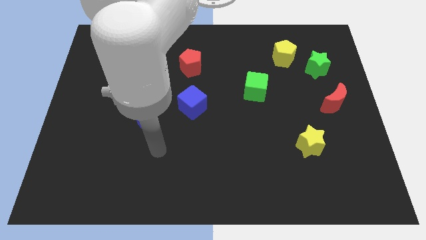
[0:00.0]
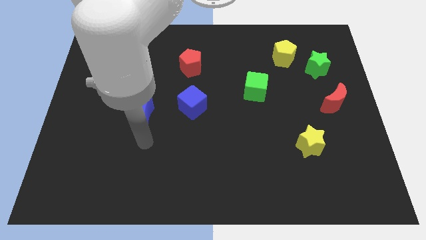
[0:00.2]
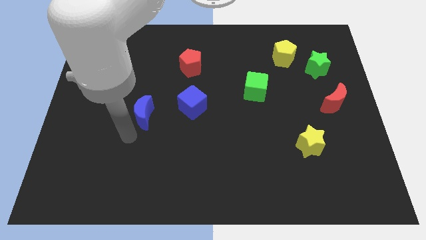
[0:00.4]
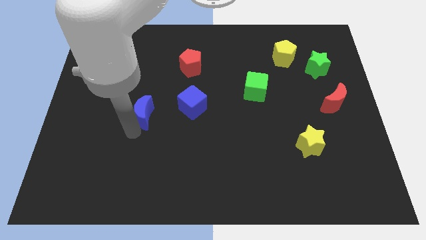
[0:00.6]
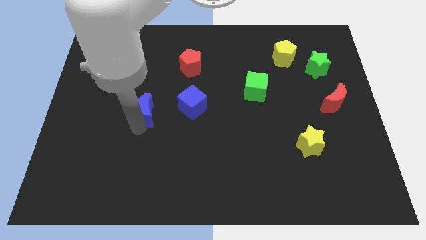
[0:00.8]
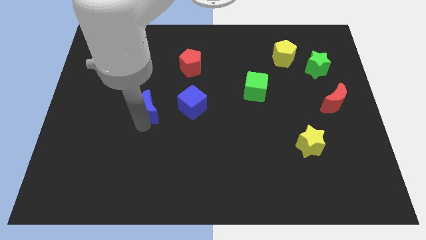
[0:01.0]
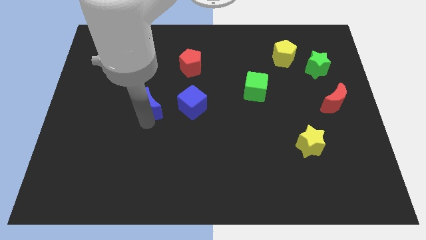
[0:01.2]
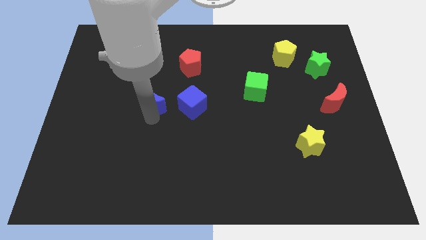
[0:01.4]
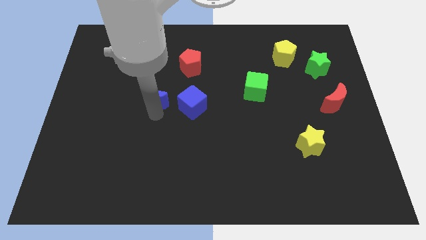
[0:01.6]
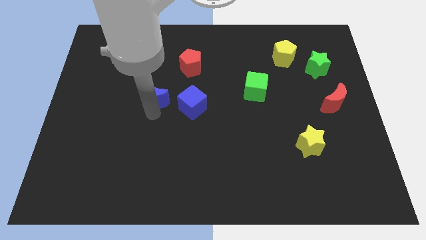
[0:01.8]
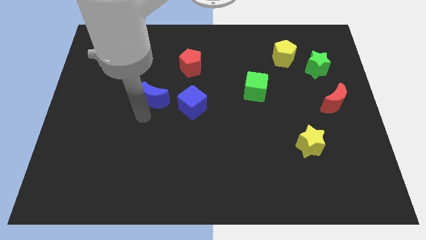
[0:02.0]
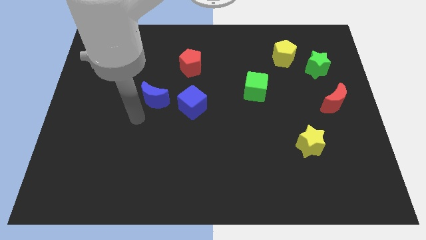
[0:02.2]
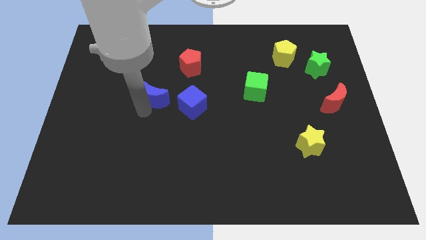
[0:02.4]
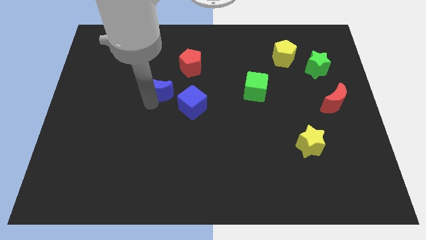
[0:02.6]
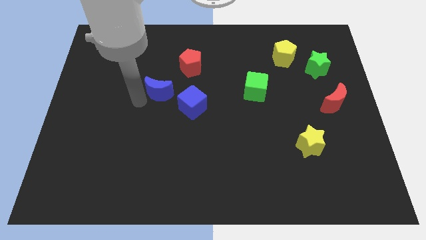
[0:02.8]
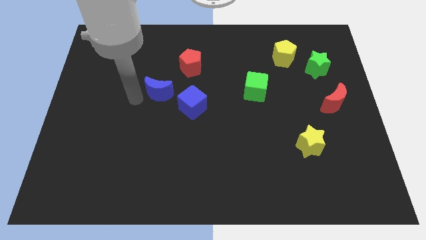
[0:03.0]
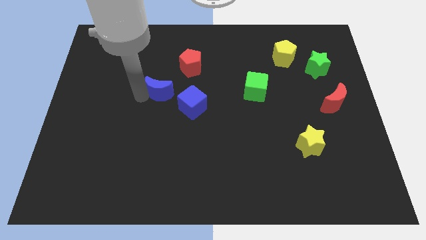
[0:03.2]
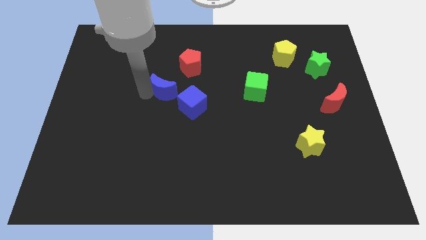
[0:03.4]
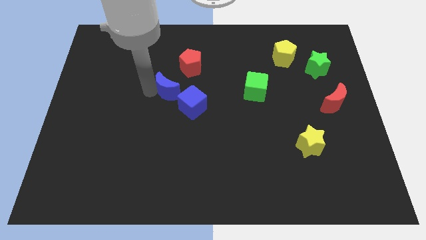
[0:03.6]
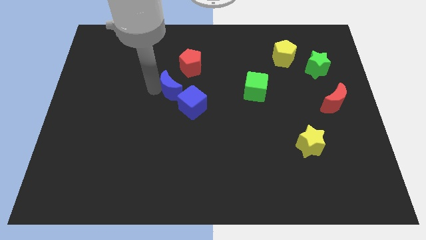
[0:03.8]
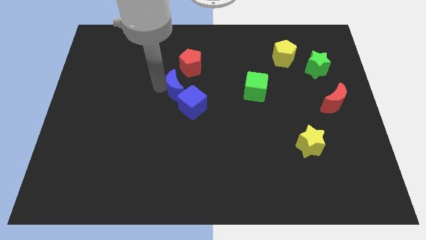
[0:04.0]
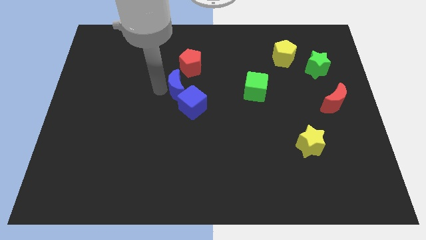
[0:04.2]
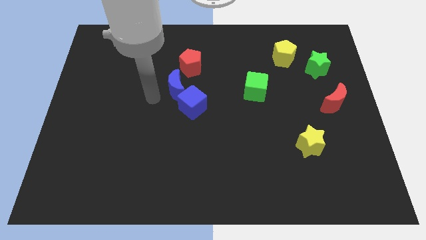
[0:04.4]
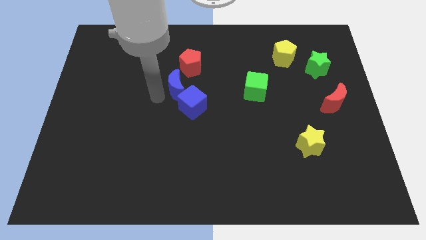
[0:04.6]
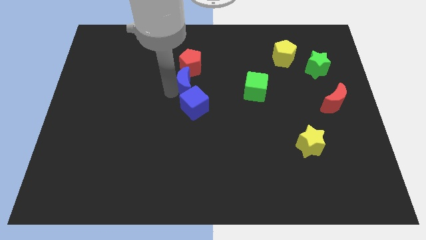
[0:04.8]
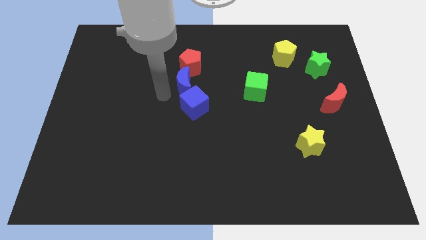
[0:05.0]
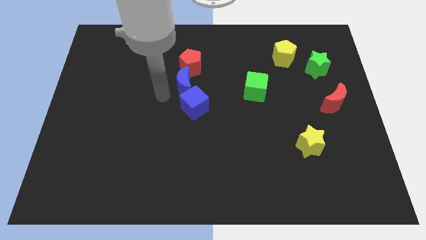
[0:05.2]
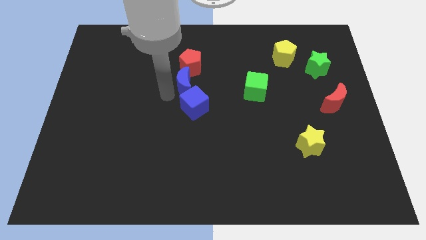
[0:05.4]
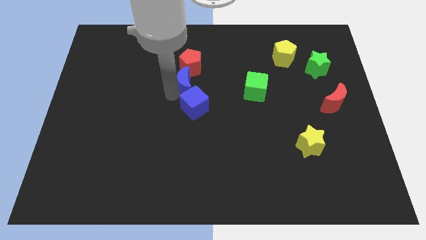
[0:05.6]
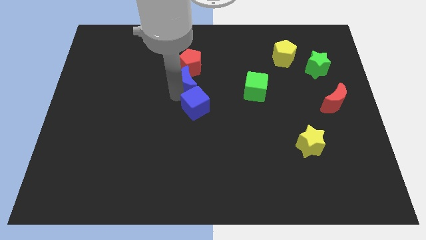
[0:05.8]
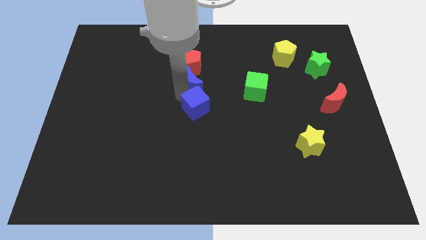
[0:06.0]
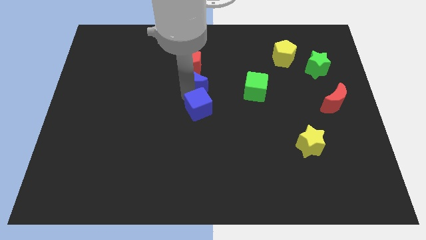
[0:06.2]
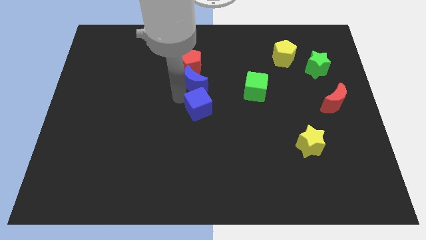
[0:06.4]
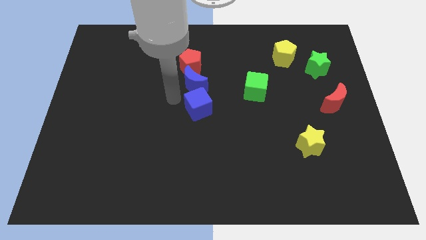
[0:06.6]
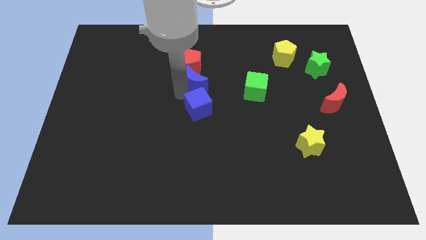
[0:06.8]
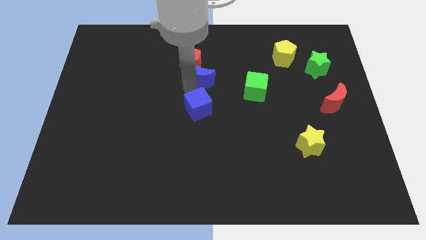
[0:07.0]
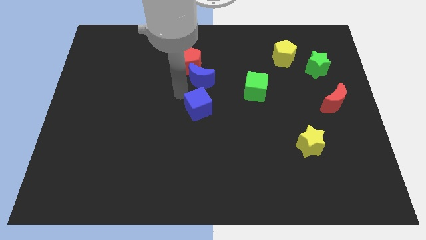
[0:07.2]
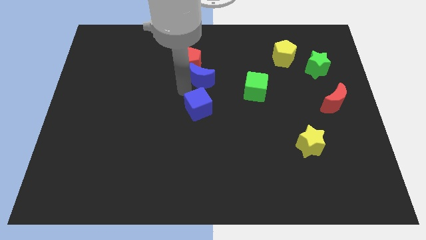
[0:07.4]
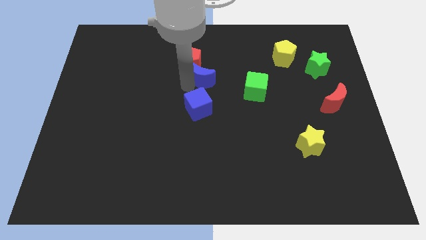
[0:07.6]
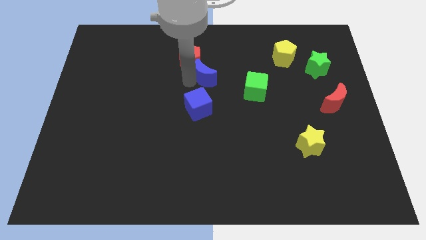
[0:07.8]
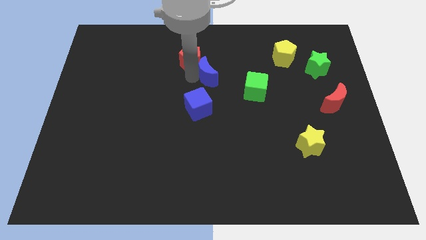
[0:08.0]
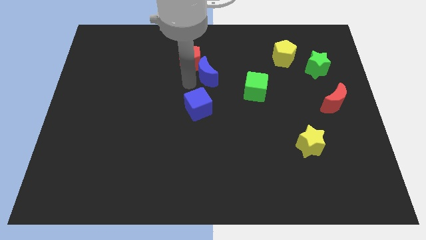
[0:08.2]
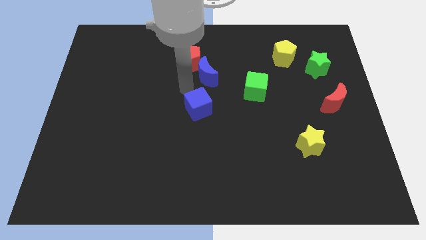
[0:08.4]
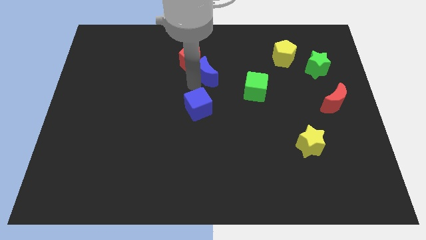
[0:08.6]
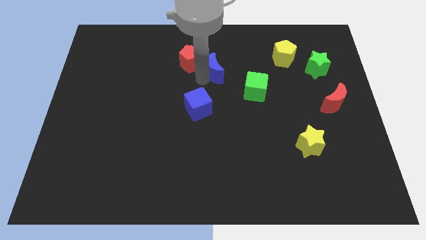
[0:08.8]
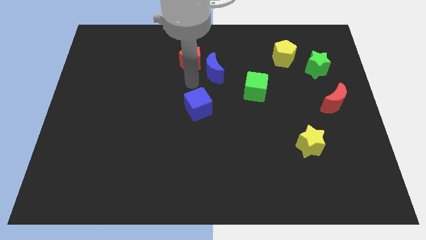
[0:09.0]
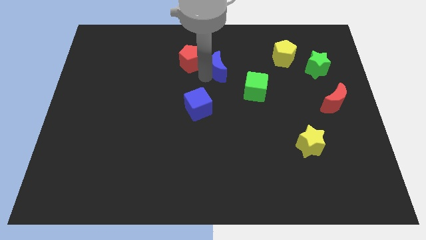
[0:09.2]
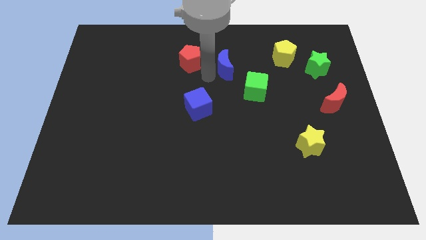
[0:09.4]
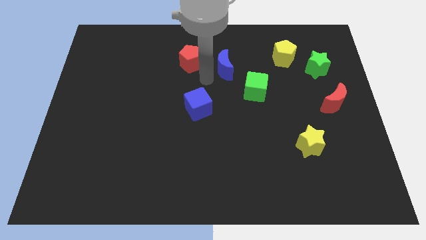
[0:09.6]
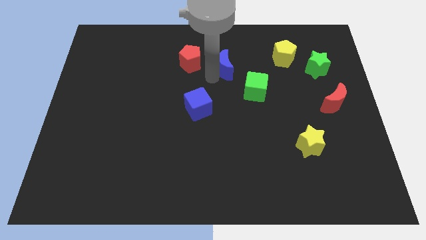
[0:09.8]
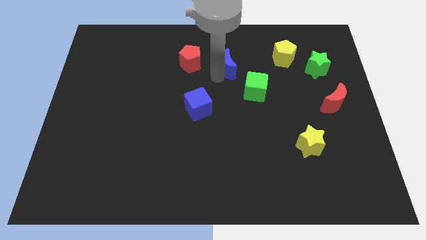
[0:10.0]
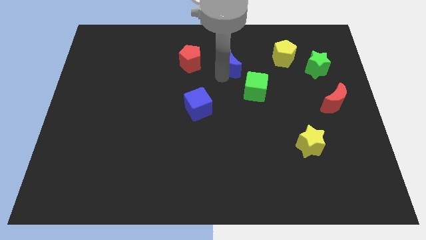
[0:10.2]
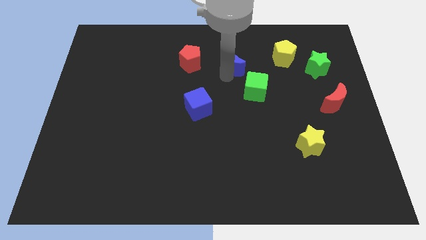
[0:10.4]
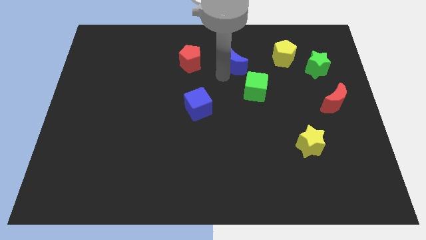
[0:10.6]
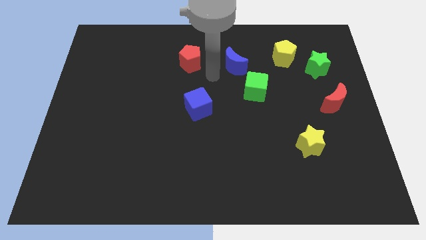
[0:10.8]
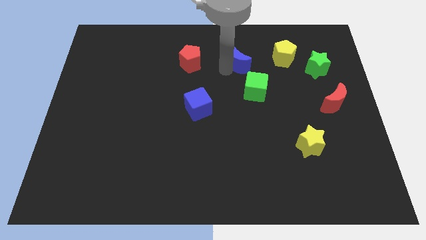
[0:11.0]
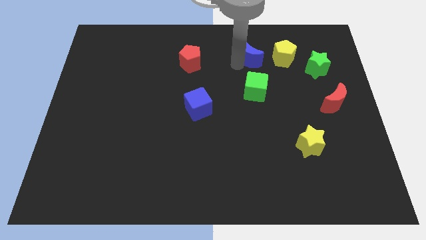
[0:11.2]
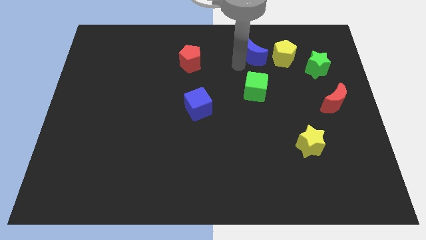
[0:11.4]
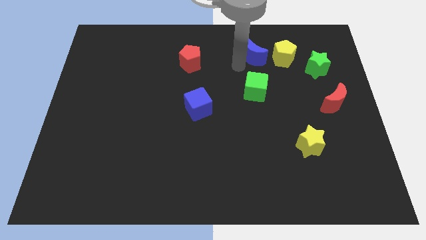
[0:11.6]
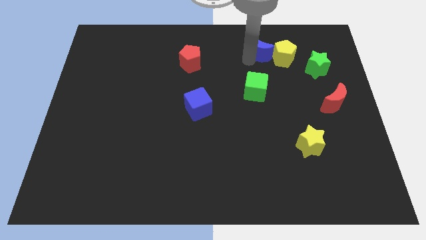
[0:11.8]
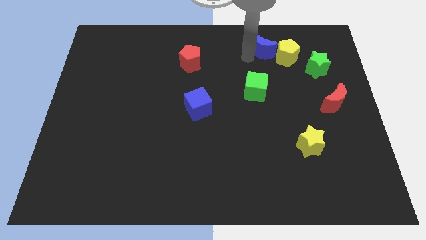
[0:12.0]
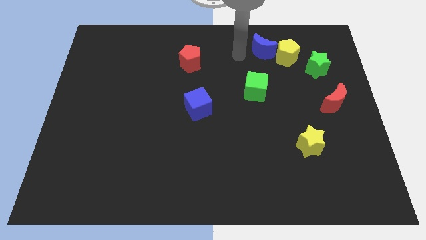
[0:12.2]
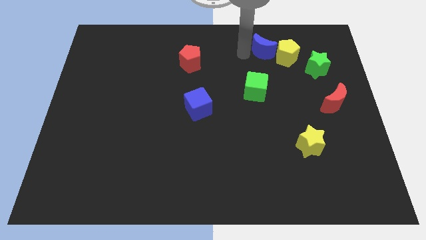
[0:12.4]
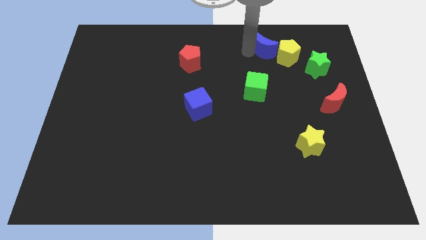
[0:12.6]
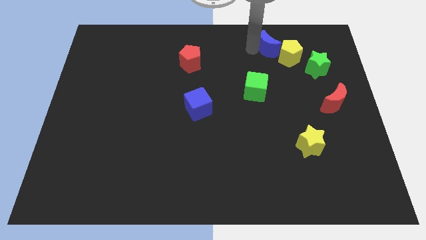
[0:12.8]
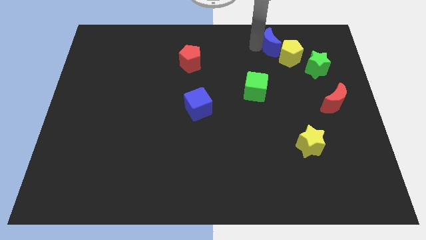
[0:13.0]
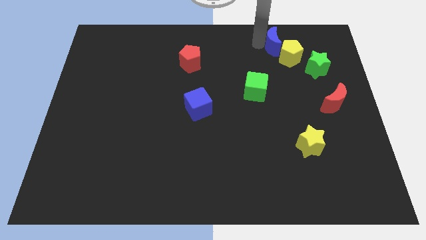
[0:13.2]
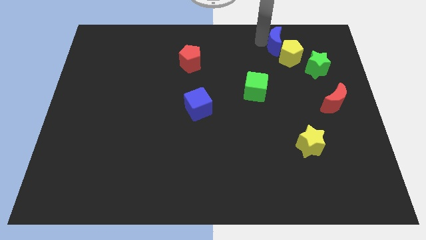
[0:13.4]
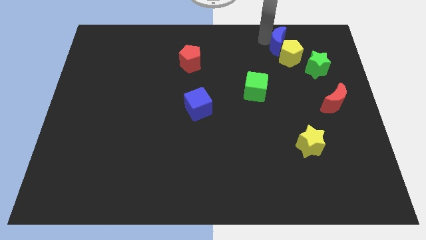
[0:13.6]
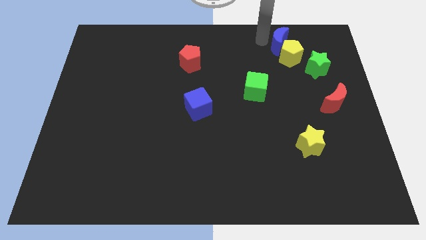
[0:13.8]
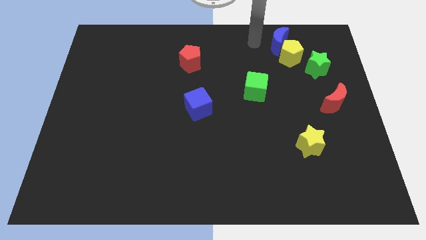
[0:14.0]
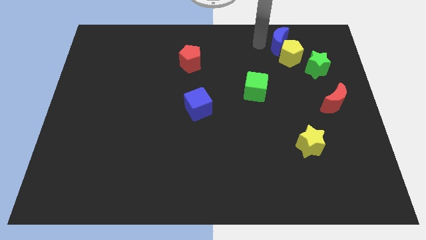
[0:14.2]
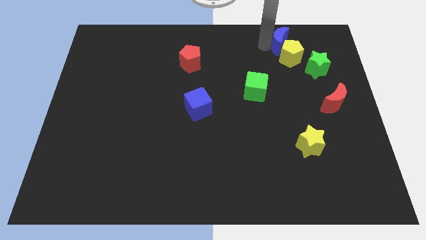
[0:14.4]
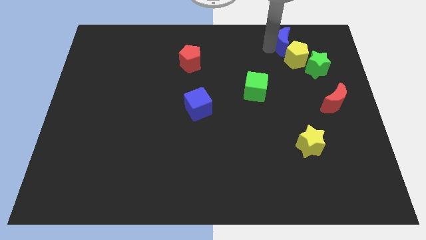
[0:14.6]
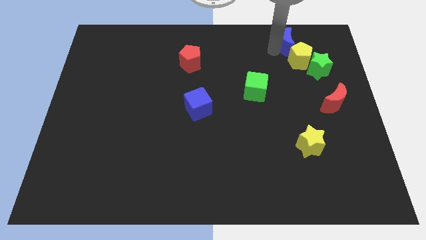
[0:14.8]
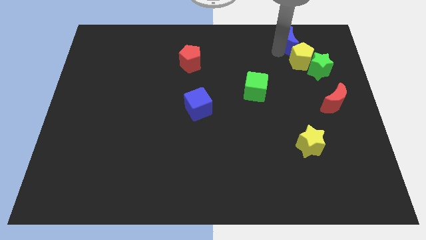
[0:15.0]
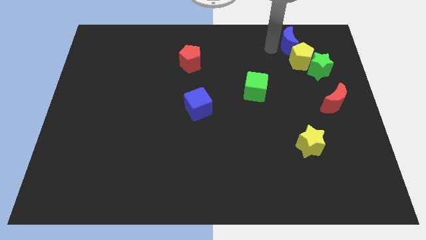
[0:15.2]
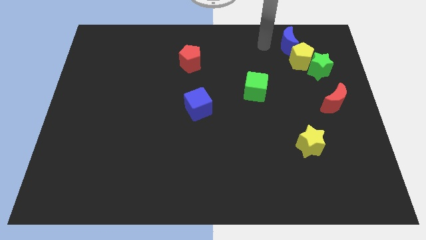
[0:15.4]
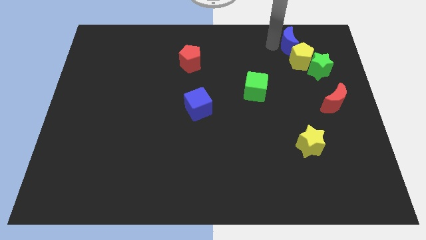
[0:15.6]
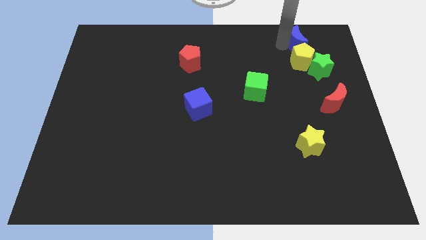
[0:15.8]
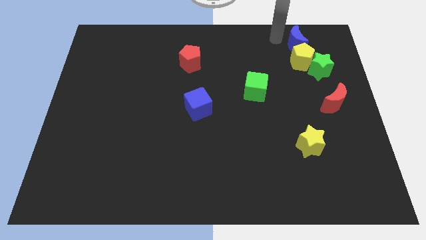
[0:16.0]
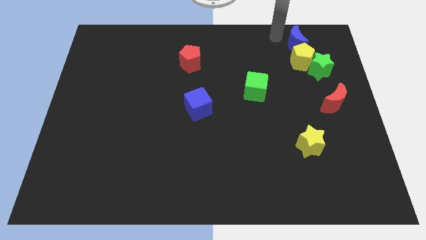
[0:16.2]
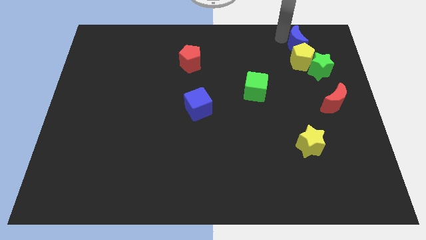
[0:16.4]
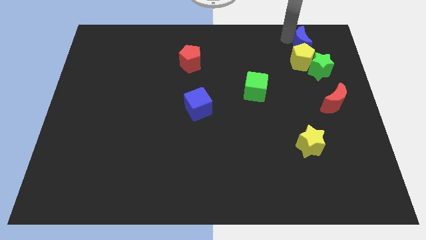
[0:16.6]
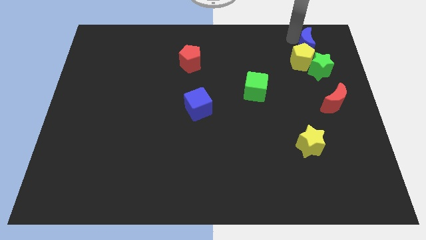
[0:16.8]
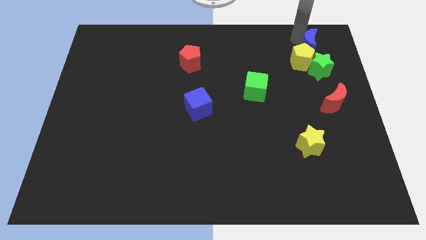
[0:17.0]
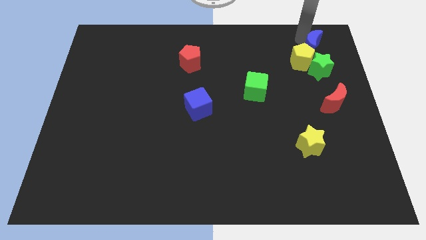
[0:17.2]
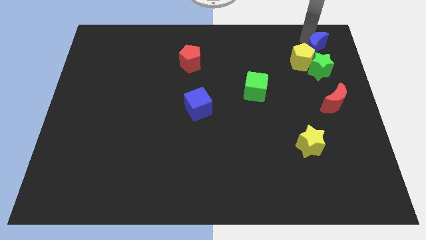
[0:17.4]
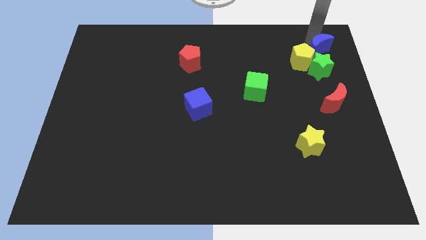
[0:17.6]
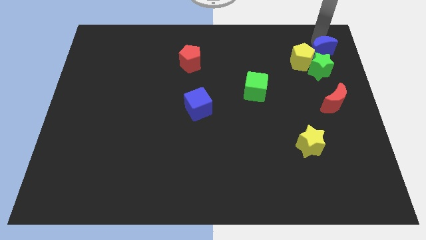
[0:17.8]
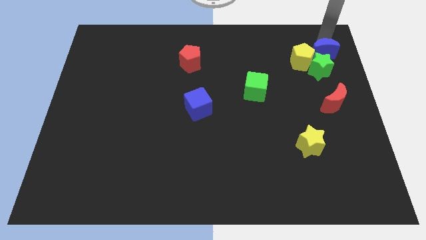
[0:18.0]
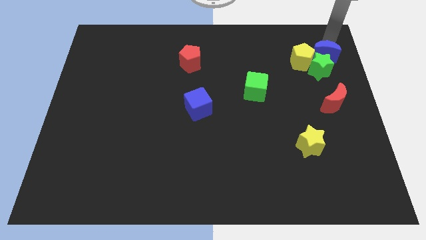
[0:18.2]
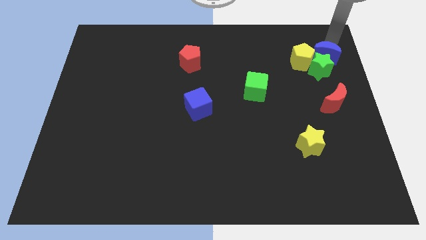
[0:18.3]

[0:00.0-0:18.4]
push the blue moon above the red moon
